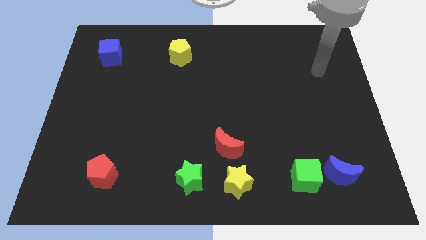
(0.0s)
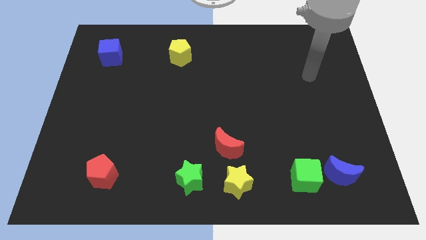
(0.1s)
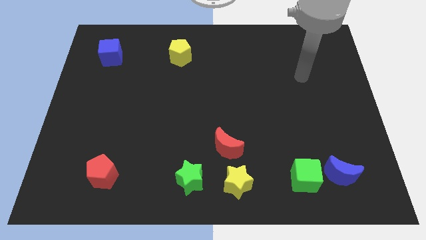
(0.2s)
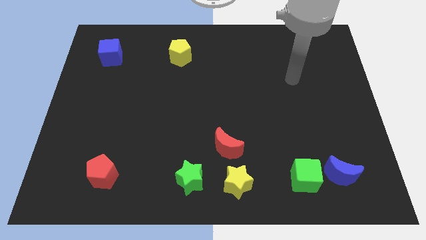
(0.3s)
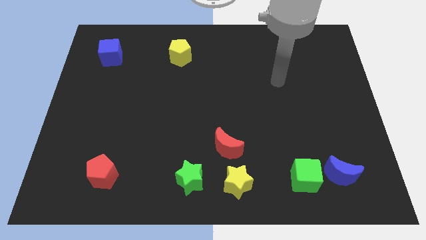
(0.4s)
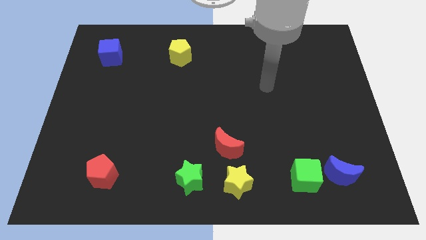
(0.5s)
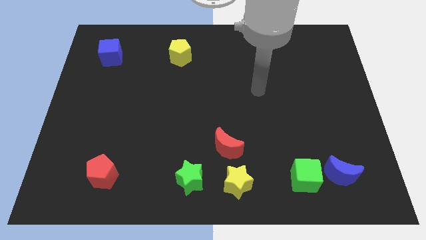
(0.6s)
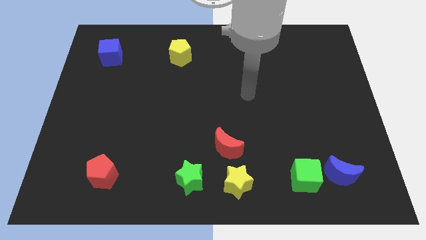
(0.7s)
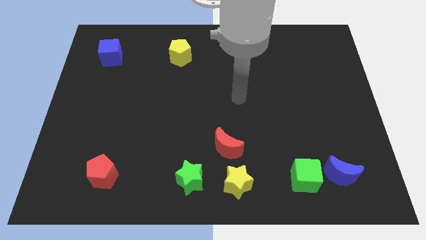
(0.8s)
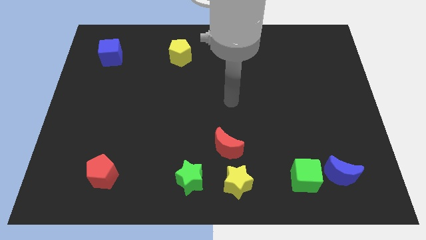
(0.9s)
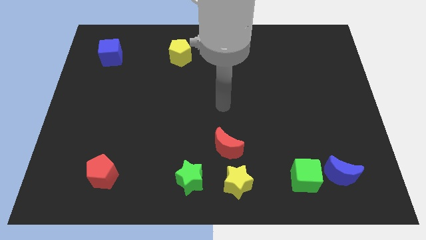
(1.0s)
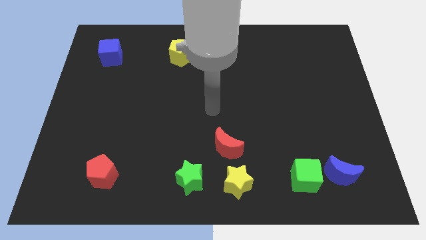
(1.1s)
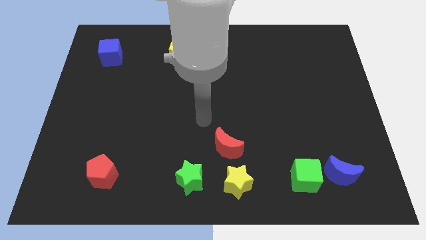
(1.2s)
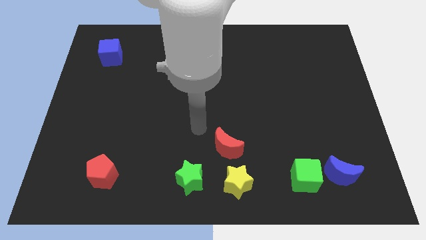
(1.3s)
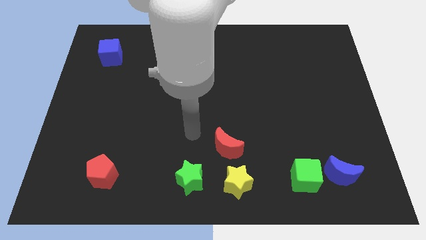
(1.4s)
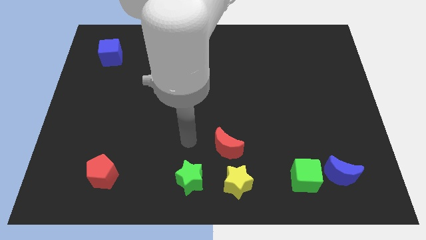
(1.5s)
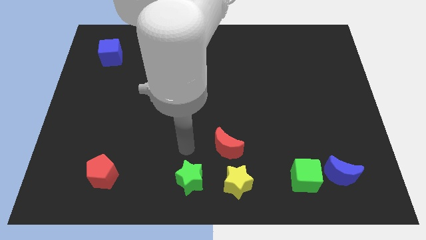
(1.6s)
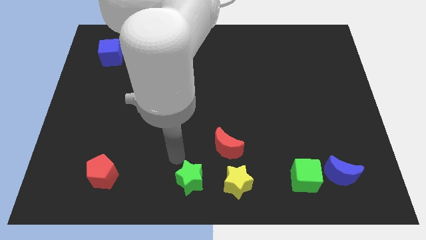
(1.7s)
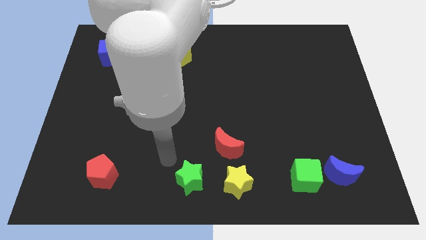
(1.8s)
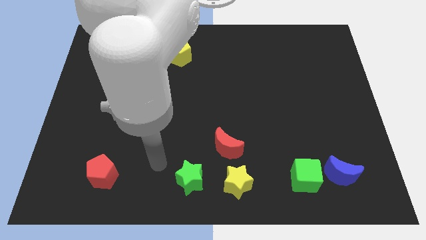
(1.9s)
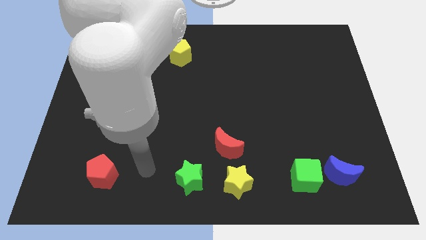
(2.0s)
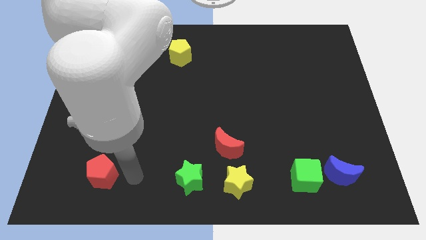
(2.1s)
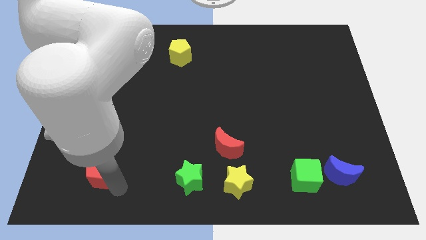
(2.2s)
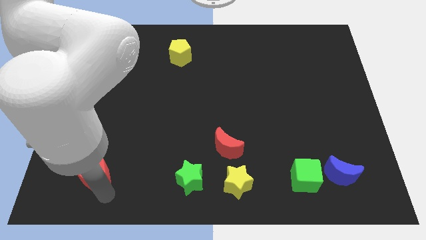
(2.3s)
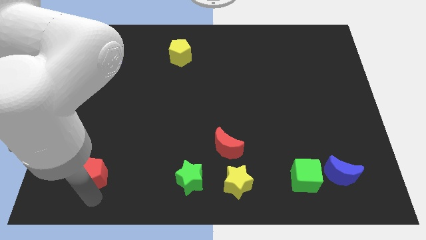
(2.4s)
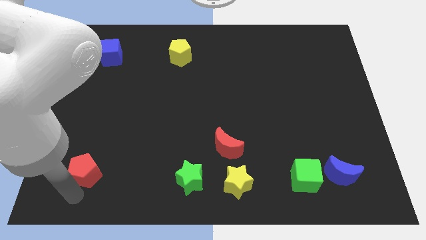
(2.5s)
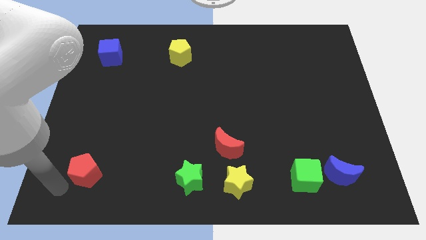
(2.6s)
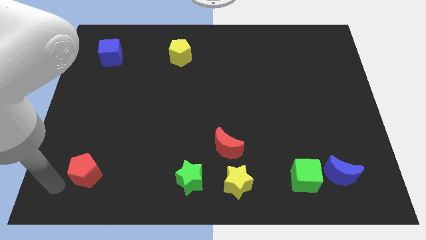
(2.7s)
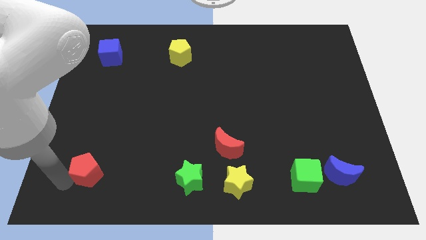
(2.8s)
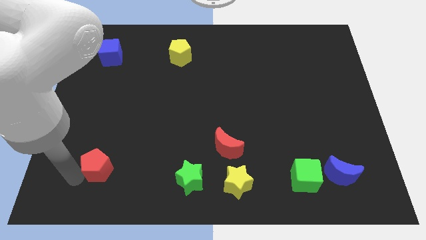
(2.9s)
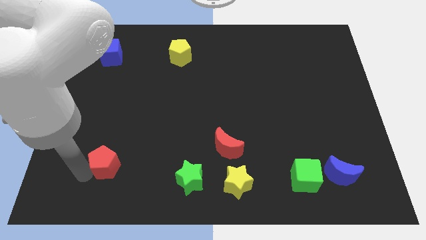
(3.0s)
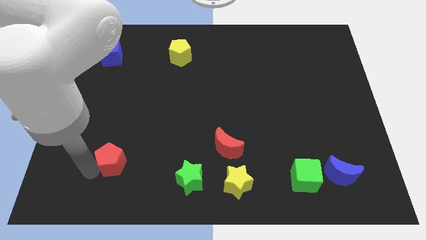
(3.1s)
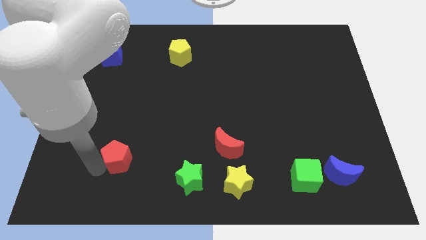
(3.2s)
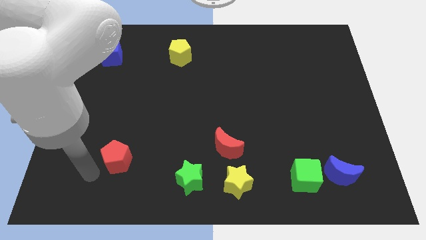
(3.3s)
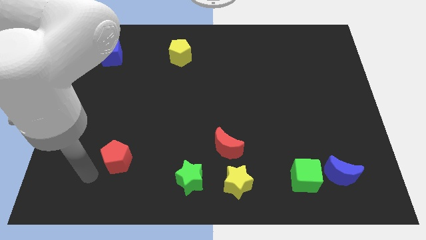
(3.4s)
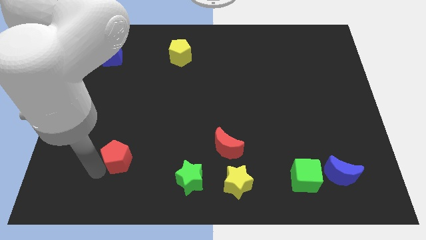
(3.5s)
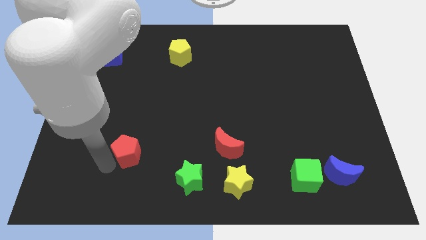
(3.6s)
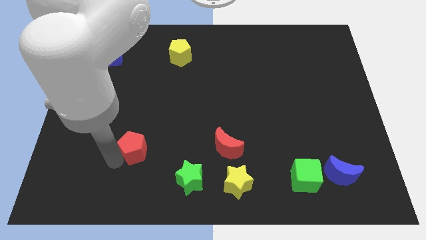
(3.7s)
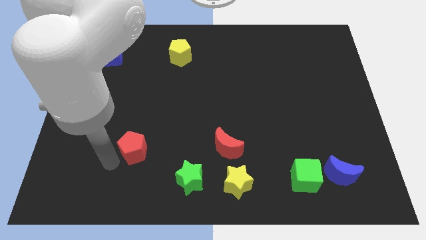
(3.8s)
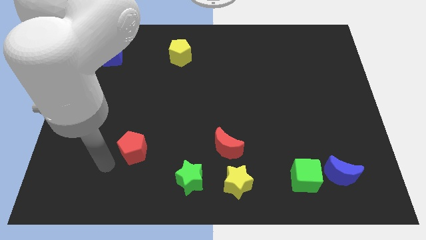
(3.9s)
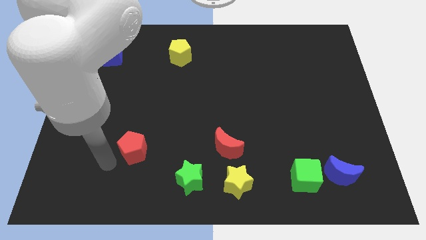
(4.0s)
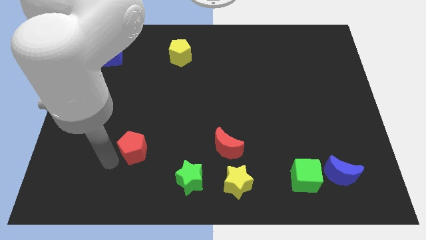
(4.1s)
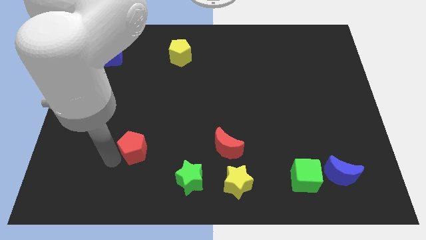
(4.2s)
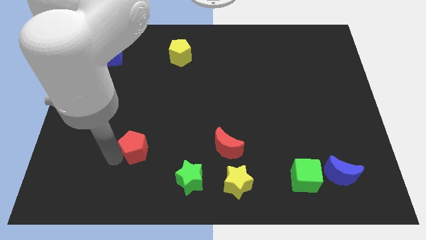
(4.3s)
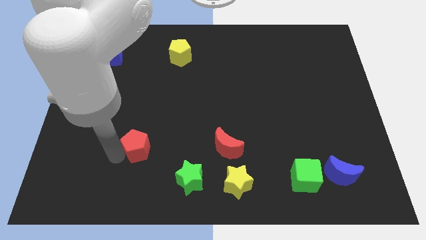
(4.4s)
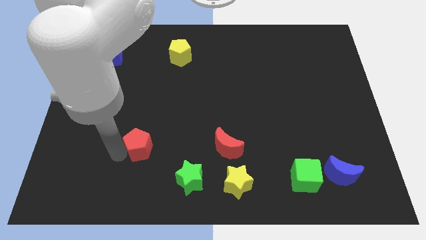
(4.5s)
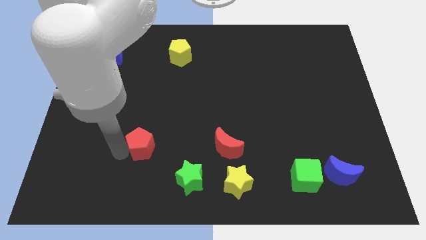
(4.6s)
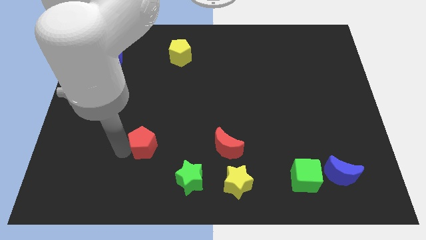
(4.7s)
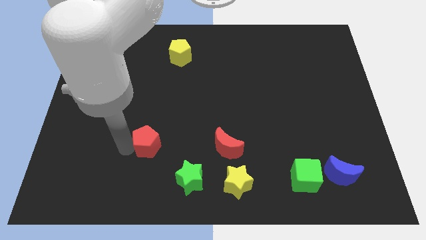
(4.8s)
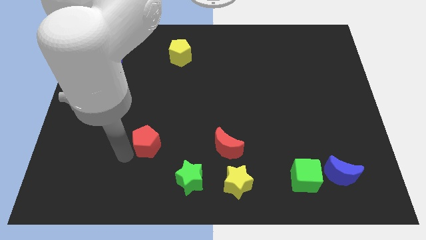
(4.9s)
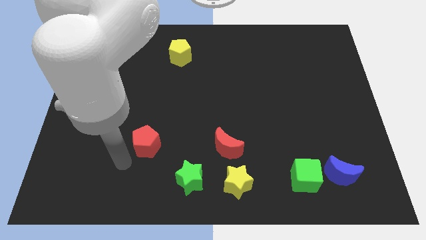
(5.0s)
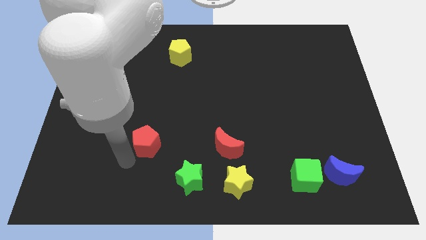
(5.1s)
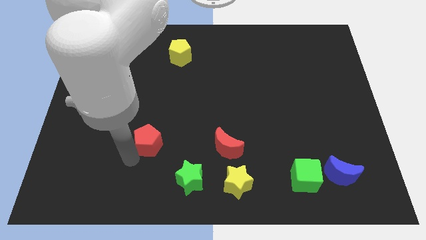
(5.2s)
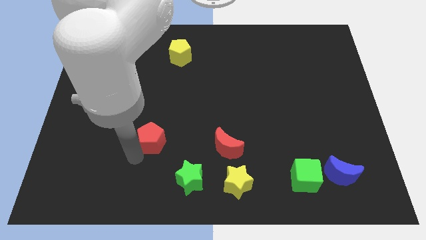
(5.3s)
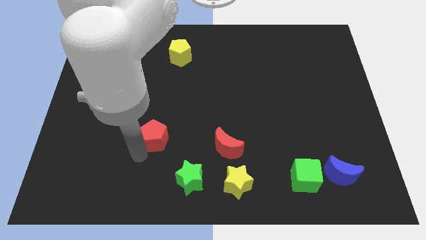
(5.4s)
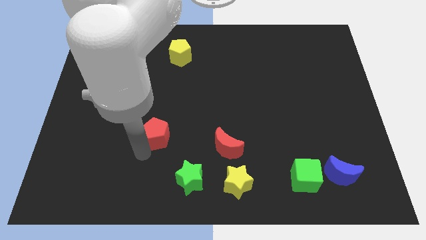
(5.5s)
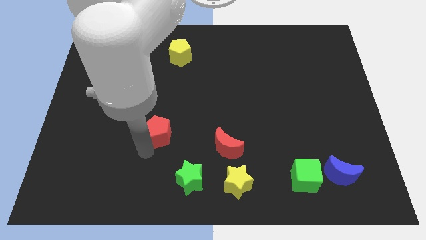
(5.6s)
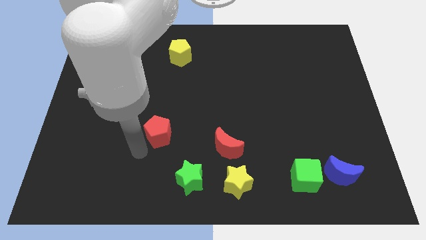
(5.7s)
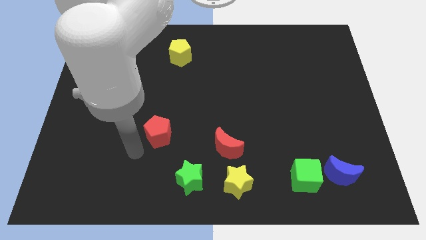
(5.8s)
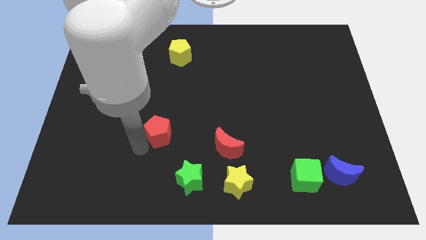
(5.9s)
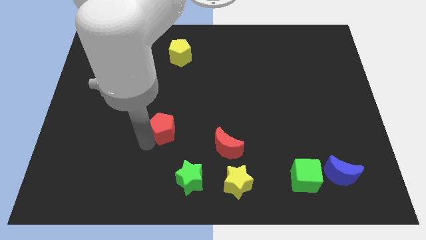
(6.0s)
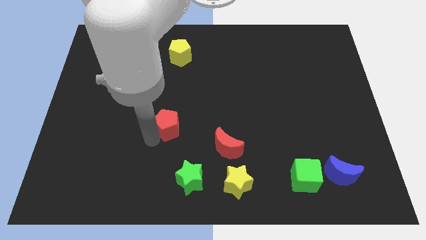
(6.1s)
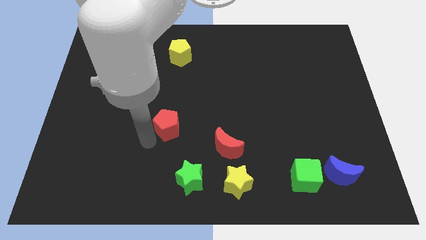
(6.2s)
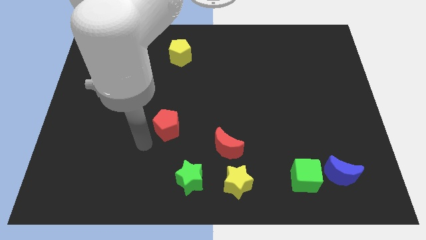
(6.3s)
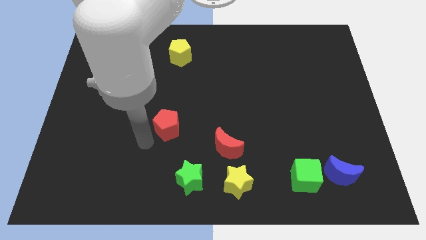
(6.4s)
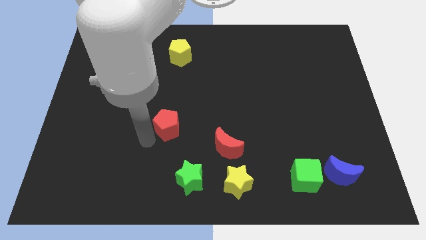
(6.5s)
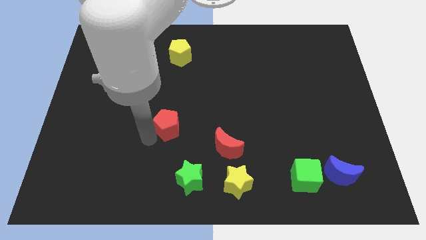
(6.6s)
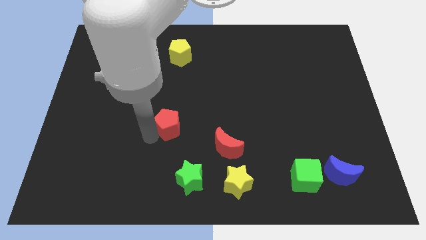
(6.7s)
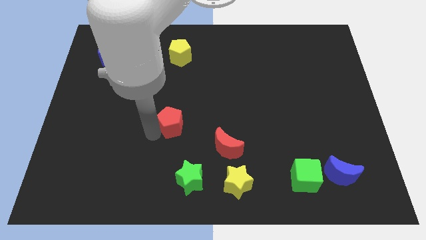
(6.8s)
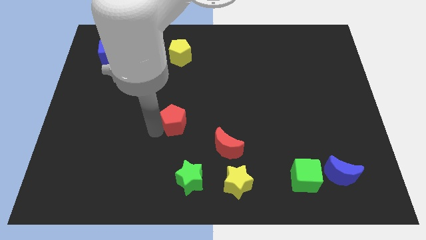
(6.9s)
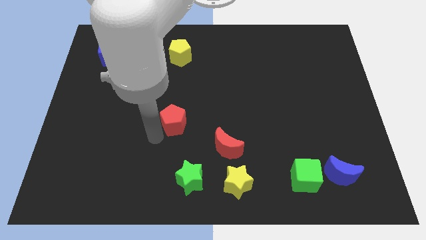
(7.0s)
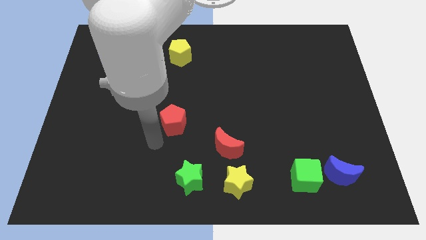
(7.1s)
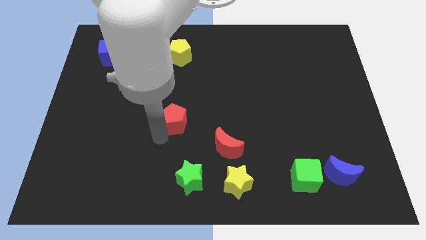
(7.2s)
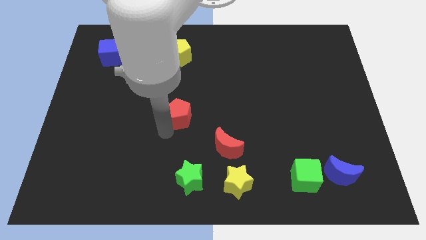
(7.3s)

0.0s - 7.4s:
push the red pentagon diagonally upwards and to the right

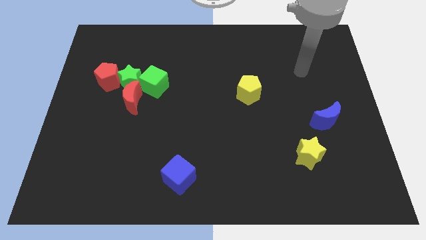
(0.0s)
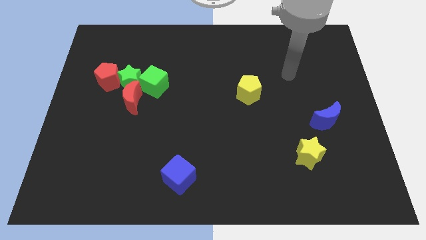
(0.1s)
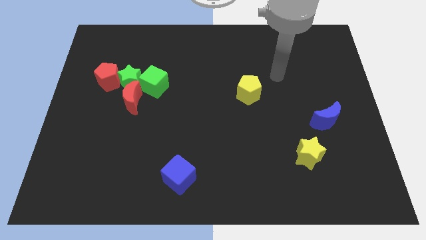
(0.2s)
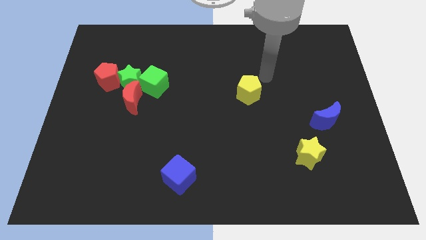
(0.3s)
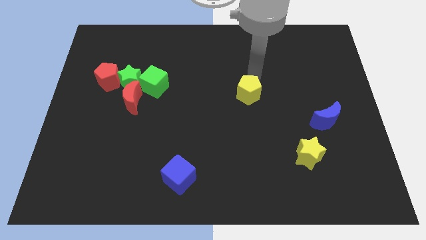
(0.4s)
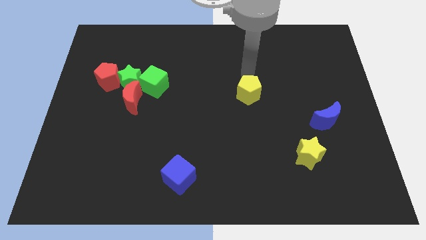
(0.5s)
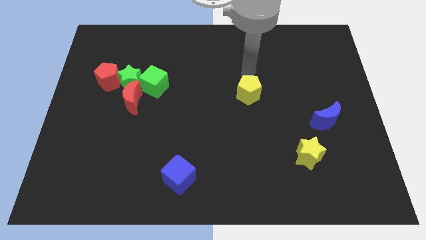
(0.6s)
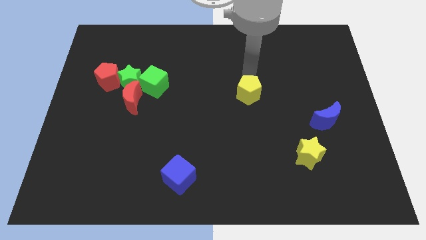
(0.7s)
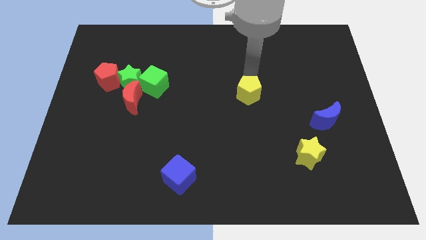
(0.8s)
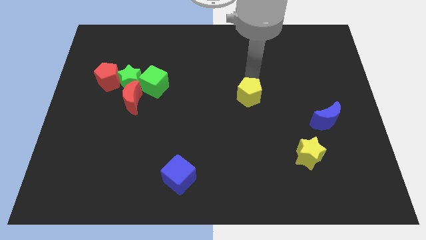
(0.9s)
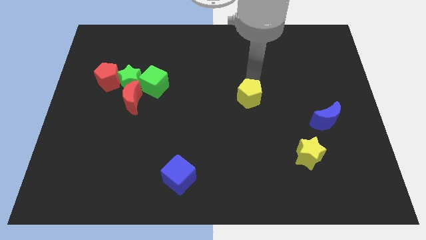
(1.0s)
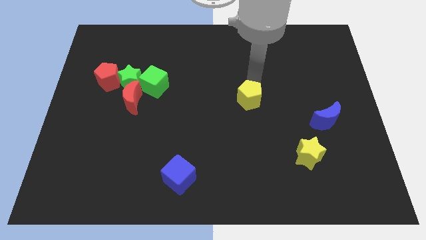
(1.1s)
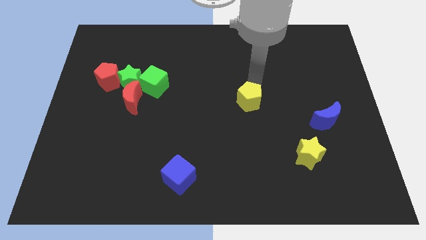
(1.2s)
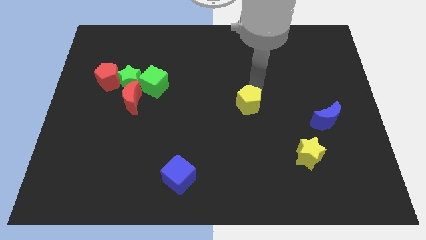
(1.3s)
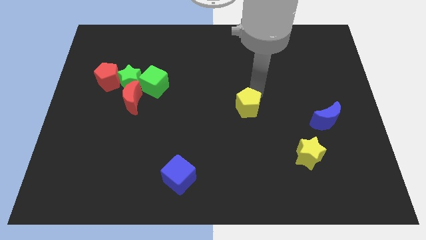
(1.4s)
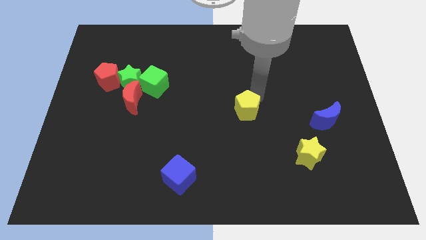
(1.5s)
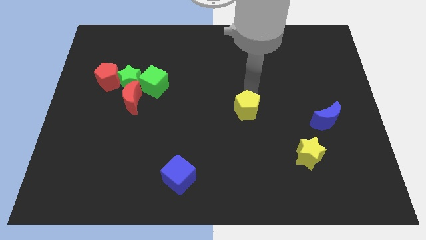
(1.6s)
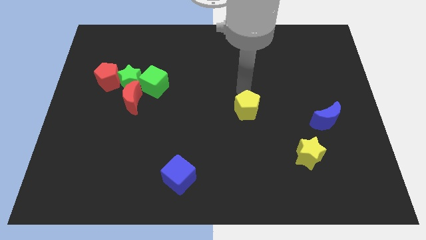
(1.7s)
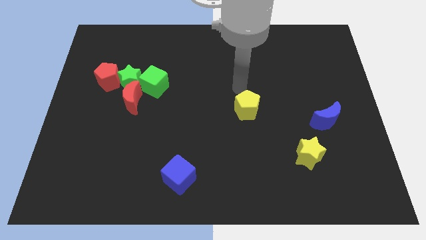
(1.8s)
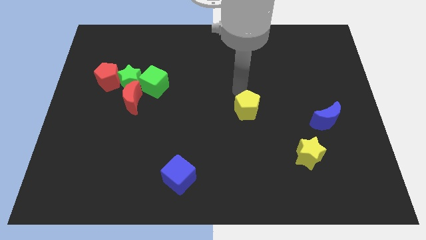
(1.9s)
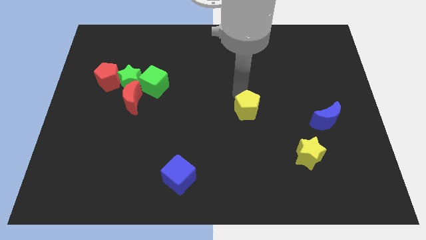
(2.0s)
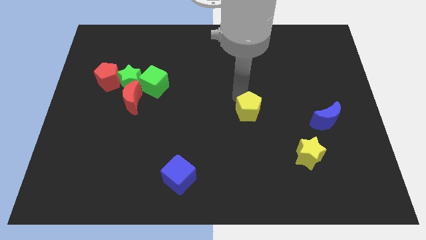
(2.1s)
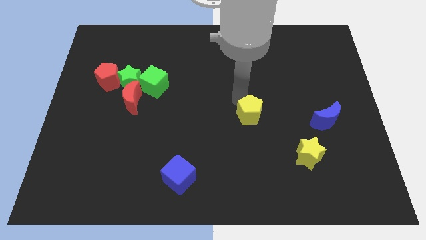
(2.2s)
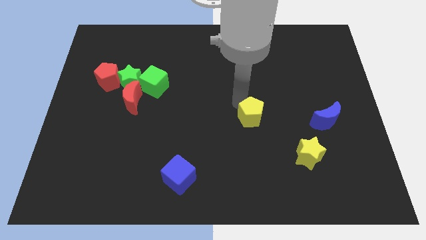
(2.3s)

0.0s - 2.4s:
slightly move the yellow pentagon down
